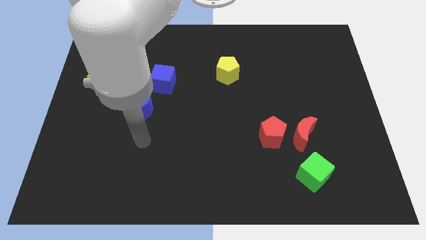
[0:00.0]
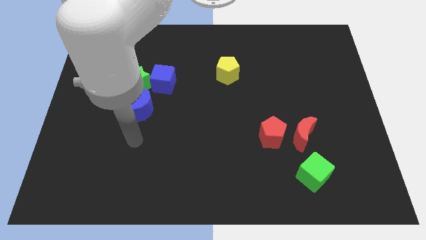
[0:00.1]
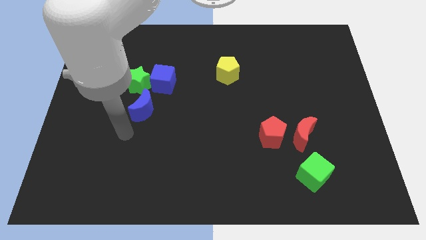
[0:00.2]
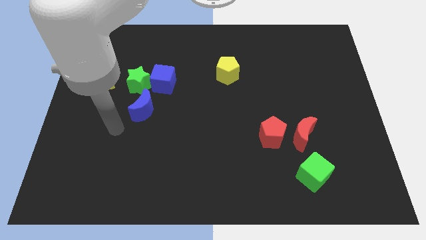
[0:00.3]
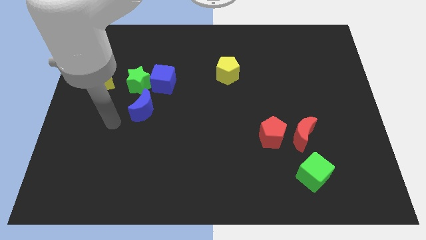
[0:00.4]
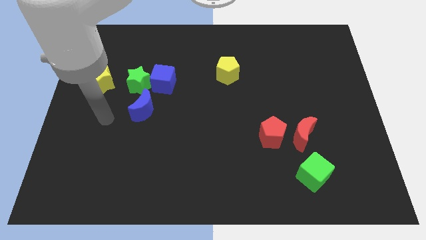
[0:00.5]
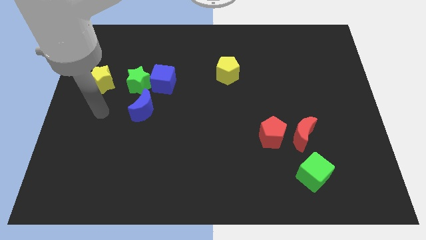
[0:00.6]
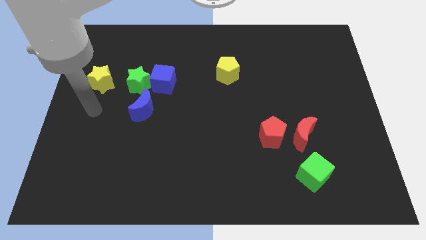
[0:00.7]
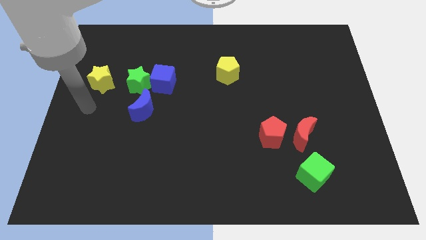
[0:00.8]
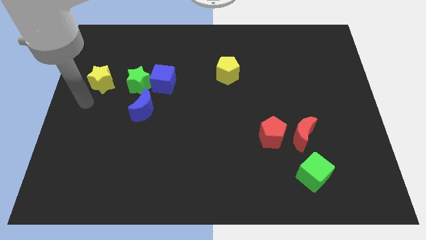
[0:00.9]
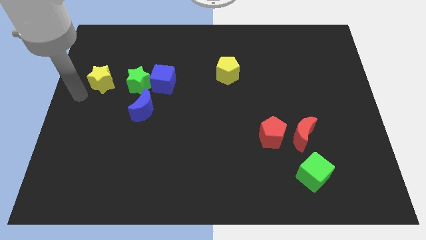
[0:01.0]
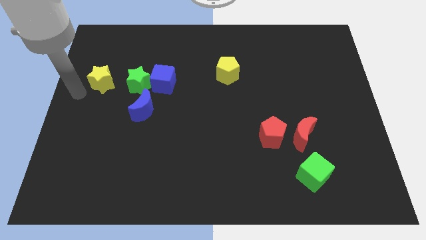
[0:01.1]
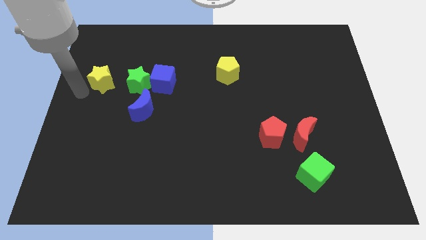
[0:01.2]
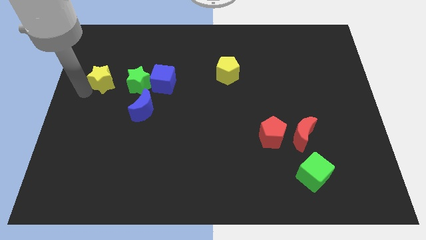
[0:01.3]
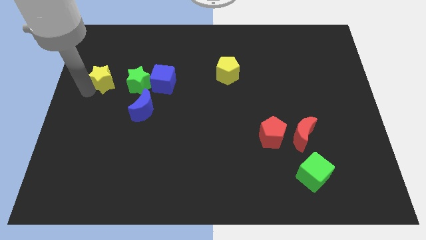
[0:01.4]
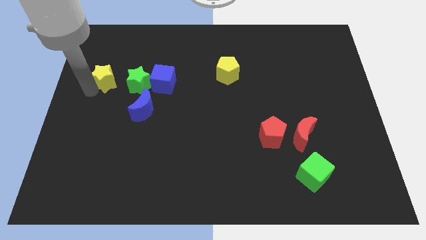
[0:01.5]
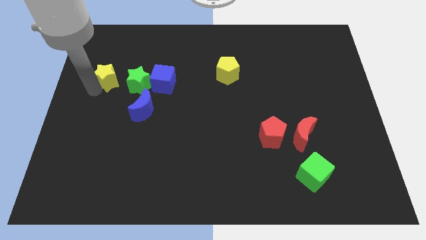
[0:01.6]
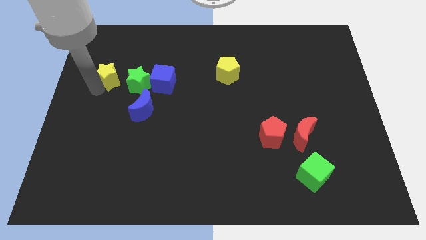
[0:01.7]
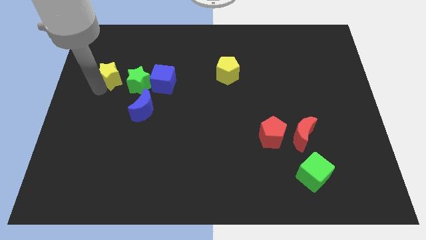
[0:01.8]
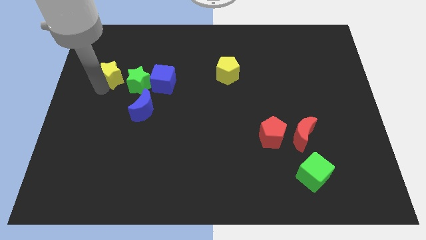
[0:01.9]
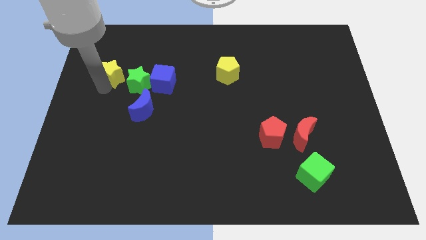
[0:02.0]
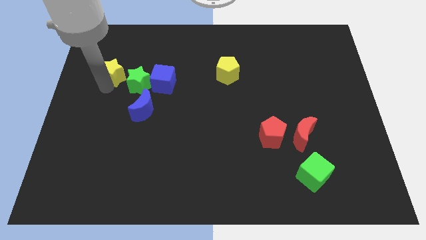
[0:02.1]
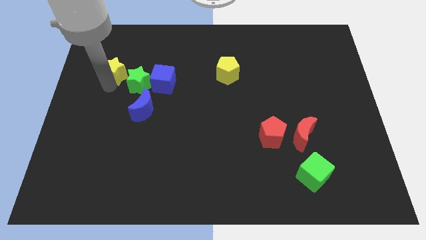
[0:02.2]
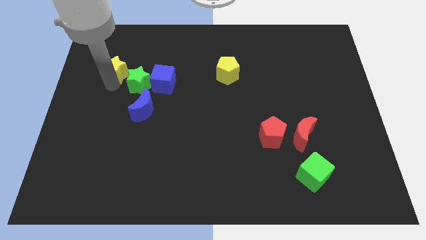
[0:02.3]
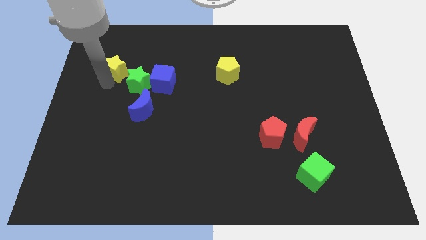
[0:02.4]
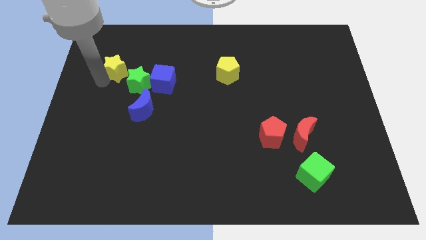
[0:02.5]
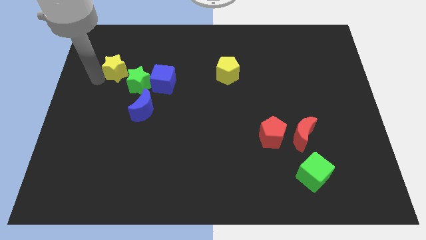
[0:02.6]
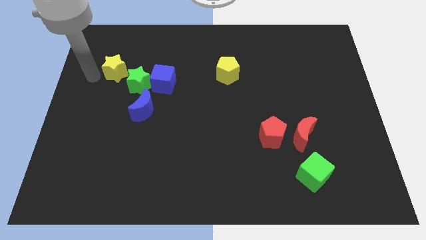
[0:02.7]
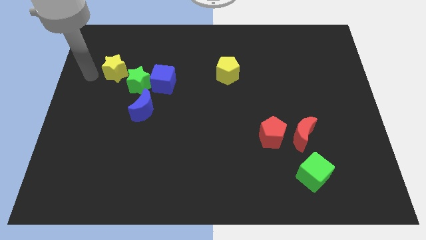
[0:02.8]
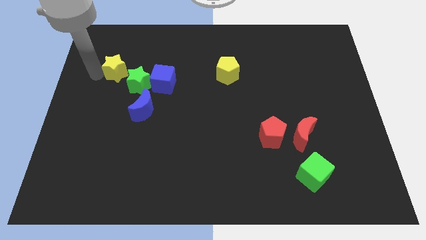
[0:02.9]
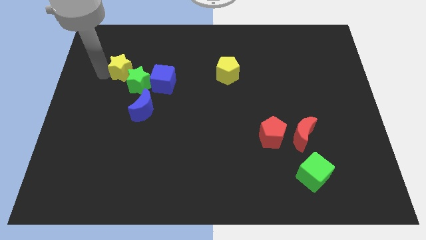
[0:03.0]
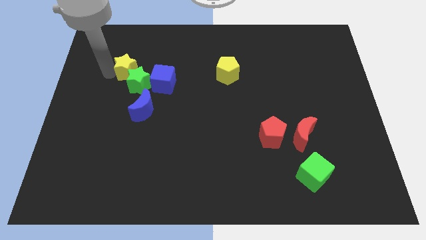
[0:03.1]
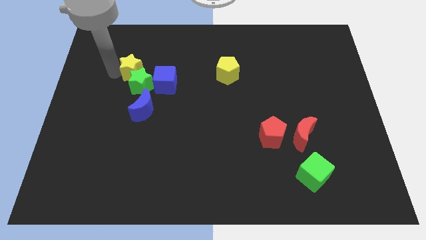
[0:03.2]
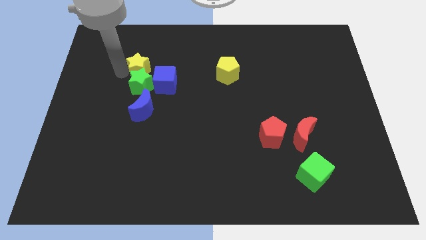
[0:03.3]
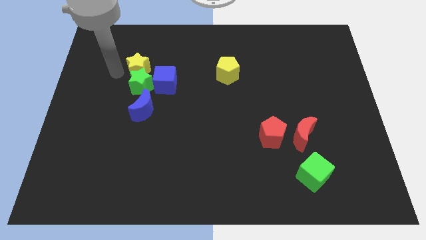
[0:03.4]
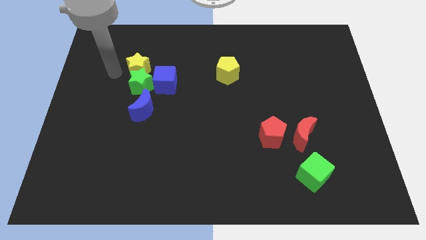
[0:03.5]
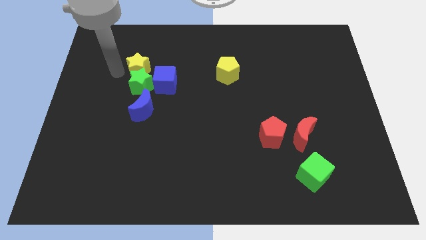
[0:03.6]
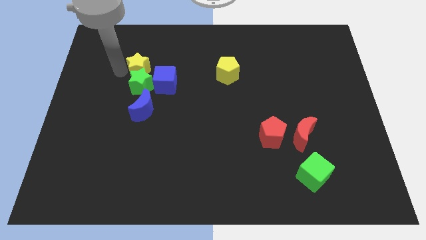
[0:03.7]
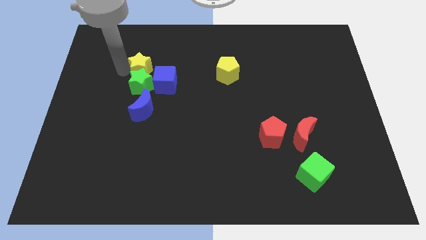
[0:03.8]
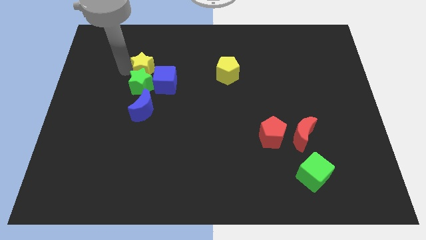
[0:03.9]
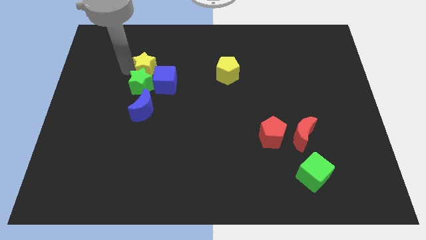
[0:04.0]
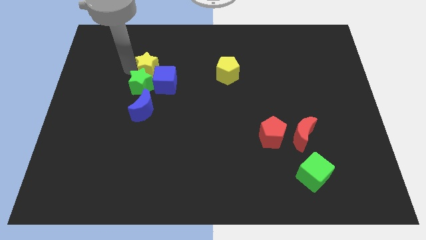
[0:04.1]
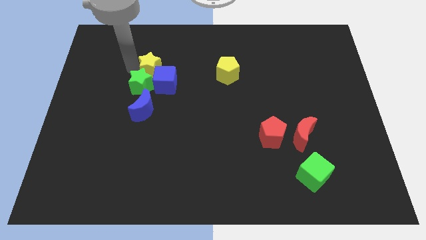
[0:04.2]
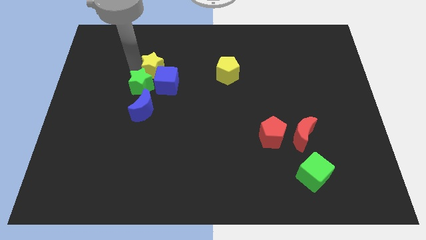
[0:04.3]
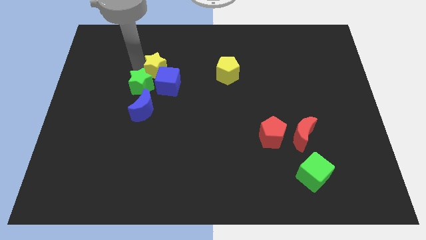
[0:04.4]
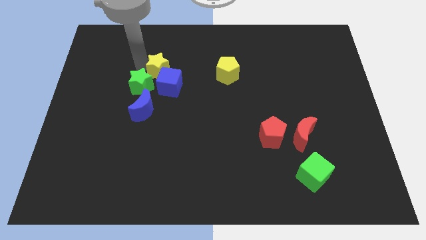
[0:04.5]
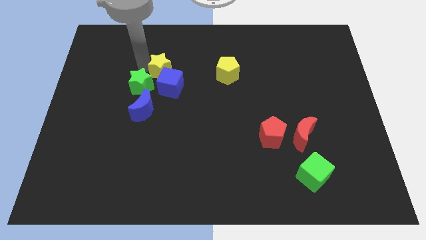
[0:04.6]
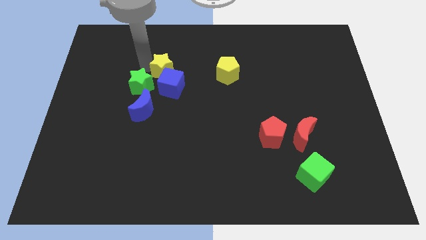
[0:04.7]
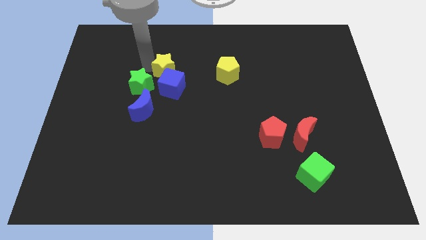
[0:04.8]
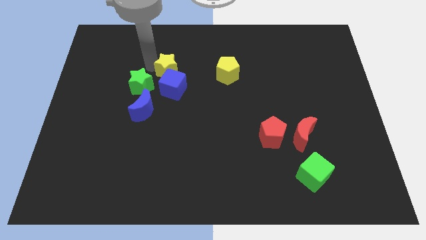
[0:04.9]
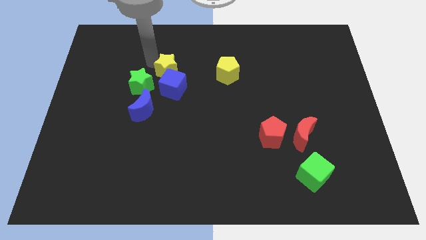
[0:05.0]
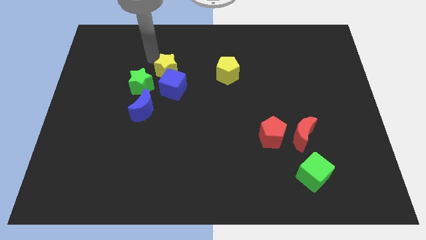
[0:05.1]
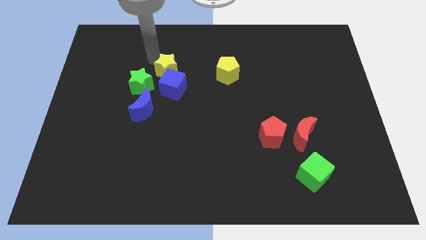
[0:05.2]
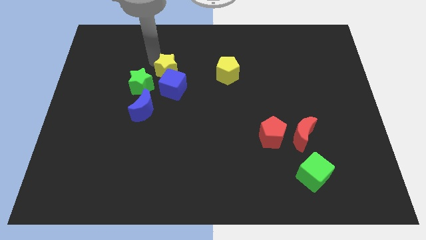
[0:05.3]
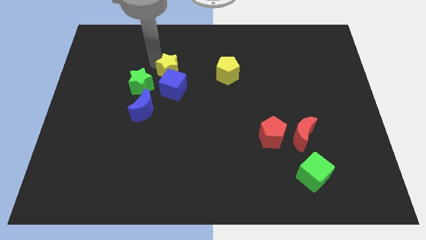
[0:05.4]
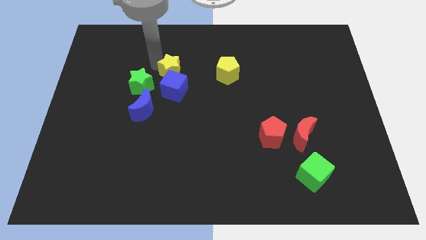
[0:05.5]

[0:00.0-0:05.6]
push the yellow star to the right side of the green star

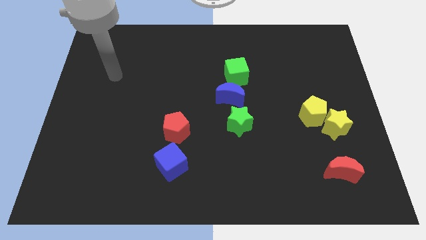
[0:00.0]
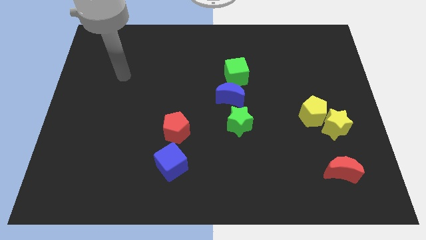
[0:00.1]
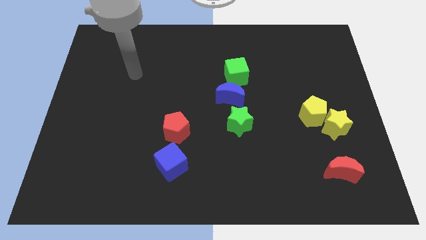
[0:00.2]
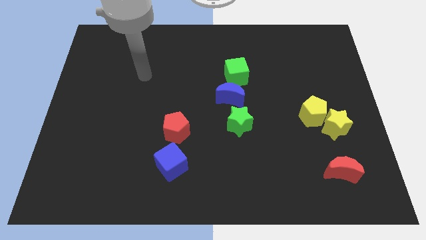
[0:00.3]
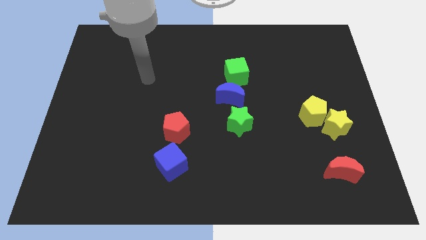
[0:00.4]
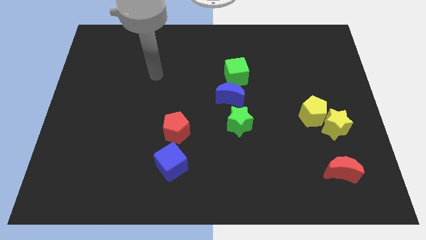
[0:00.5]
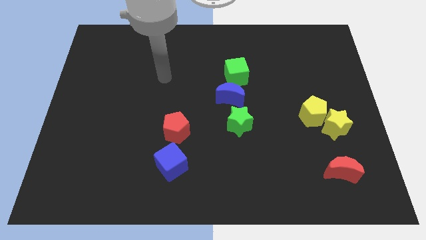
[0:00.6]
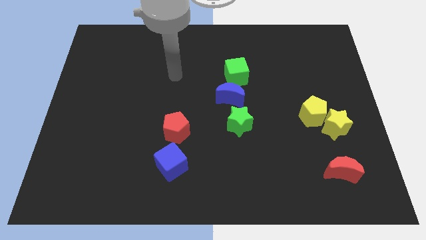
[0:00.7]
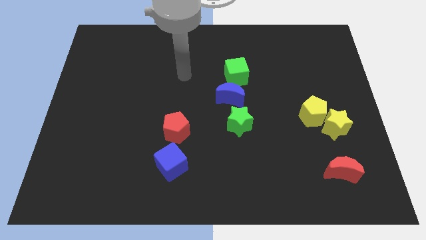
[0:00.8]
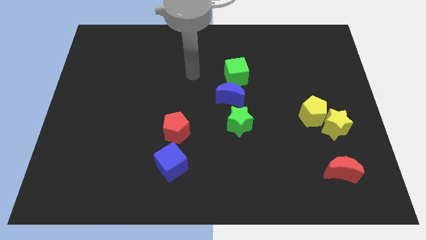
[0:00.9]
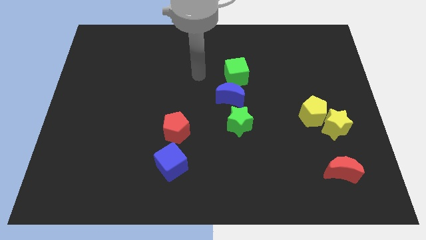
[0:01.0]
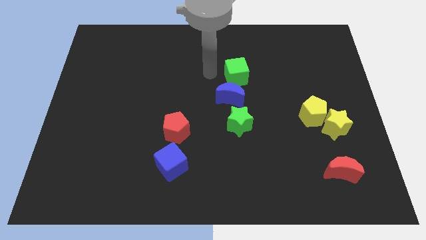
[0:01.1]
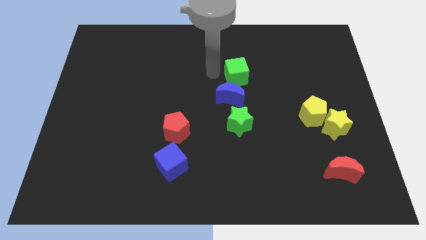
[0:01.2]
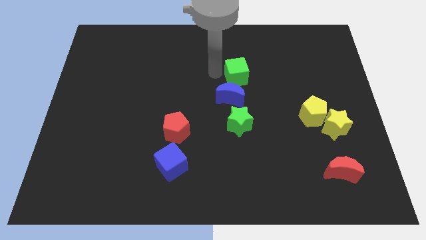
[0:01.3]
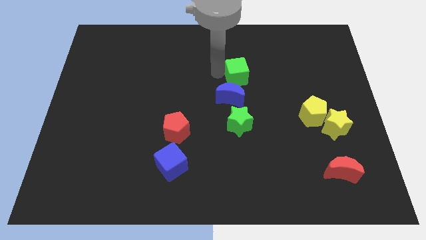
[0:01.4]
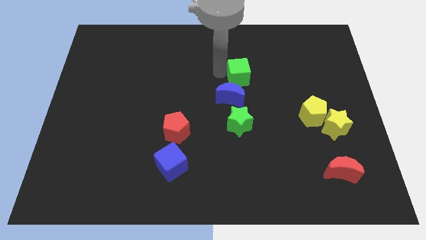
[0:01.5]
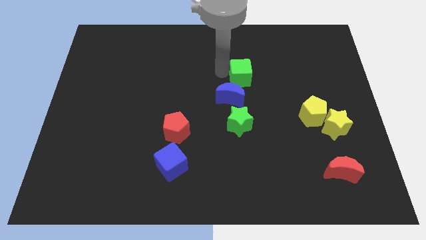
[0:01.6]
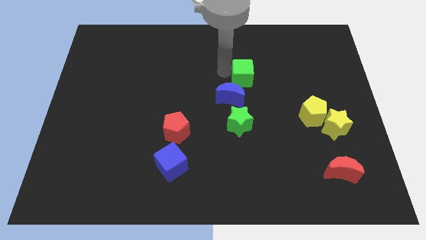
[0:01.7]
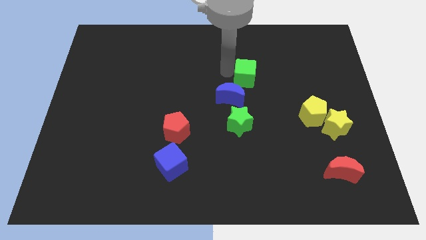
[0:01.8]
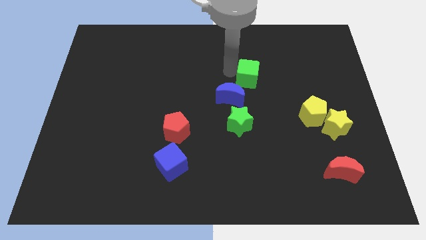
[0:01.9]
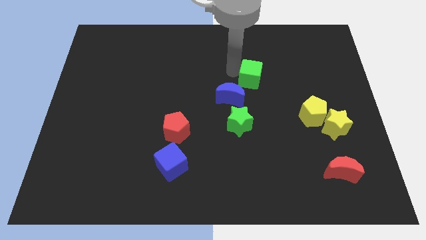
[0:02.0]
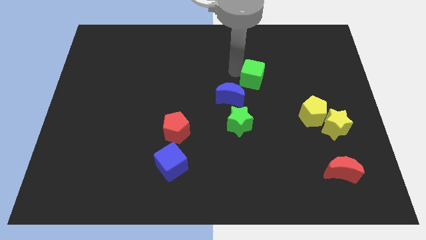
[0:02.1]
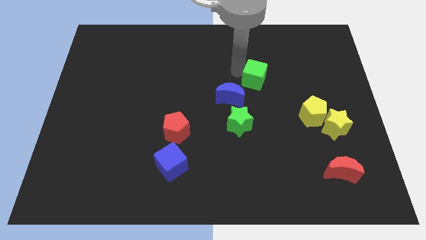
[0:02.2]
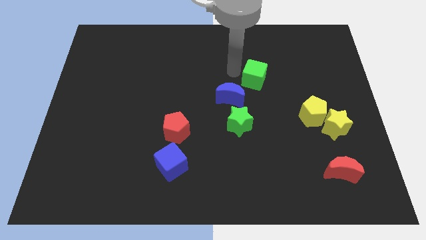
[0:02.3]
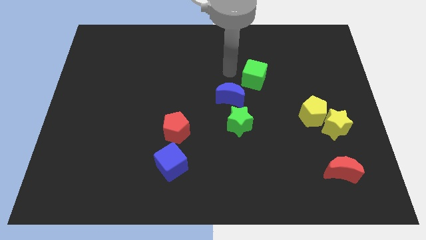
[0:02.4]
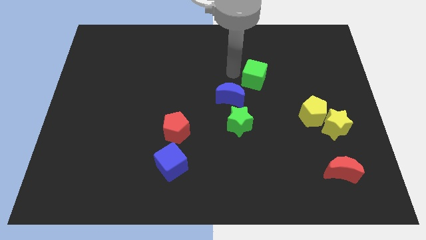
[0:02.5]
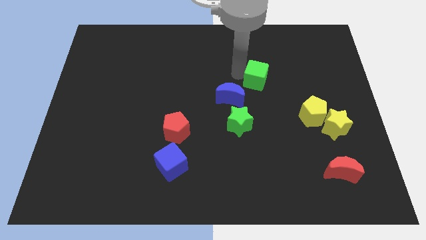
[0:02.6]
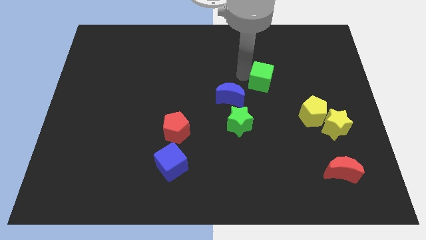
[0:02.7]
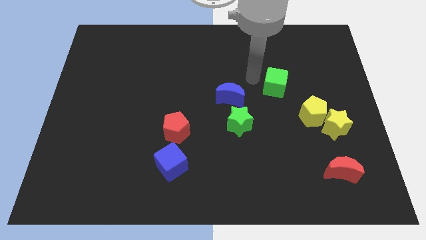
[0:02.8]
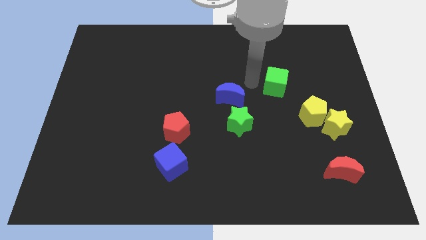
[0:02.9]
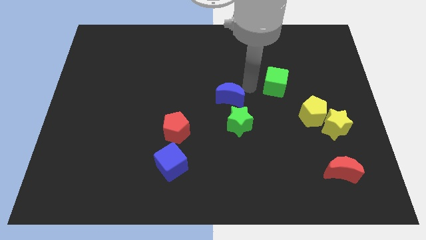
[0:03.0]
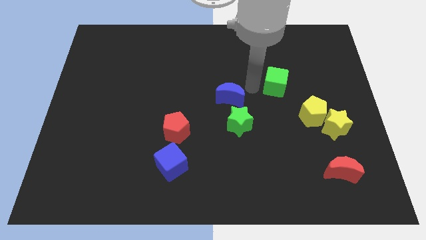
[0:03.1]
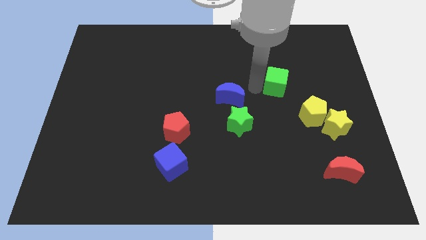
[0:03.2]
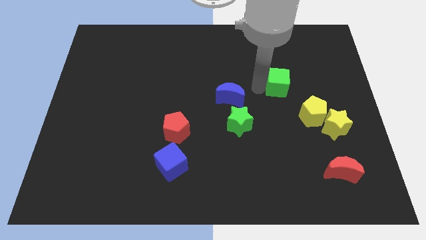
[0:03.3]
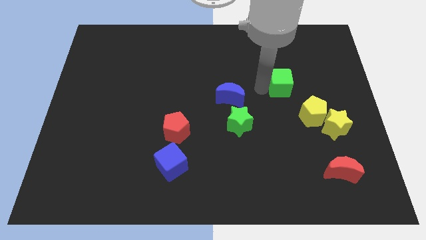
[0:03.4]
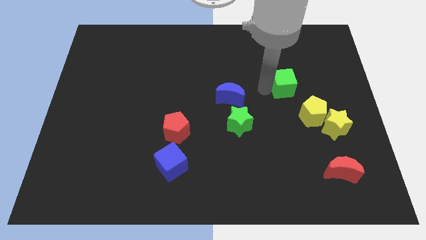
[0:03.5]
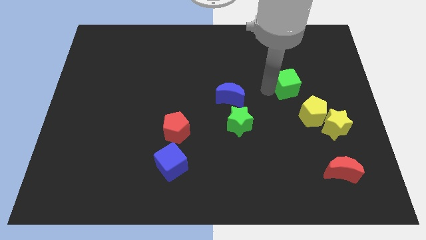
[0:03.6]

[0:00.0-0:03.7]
move the green cube to the top of the yellow pentagon
